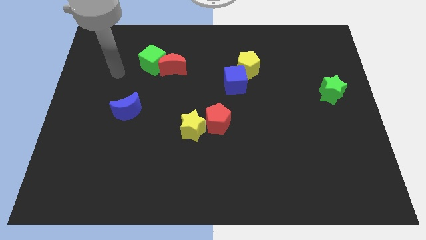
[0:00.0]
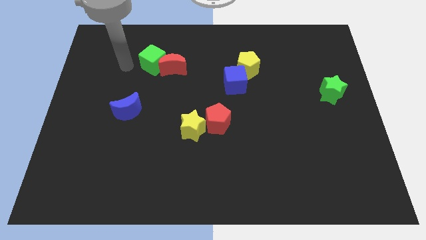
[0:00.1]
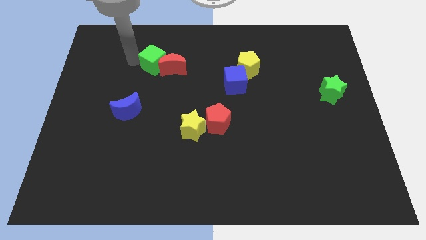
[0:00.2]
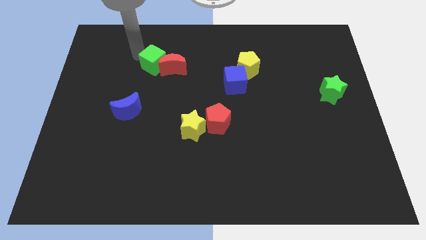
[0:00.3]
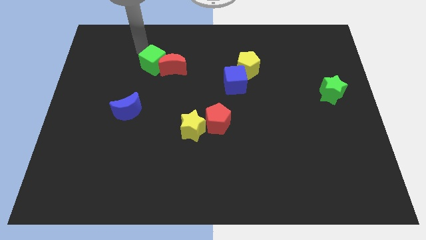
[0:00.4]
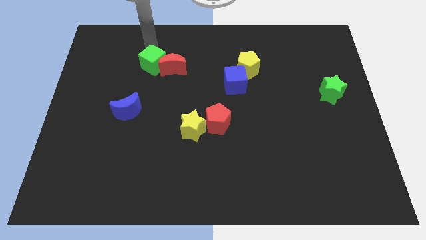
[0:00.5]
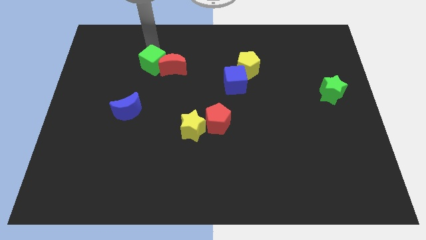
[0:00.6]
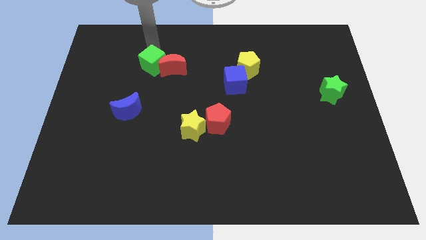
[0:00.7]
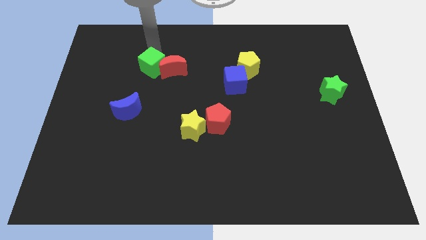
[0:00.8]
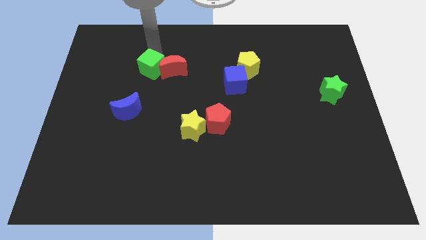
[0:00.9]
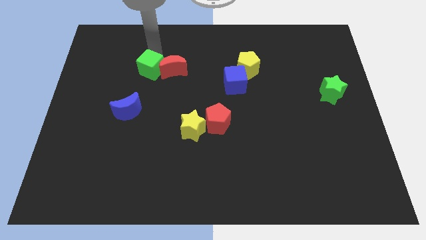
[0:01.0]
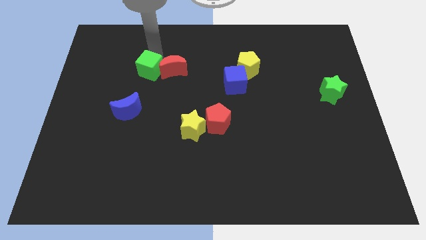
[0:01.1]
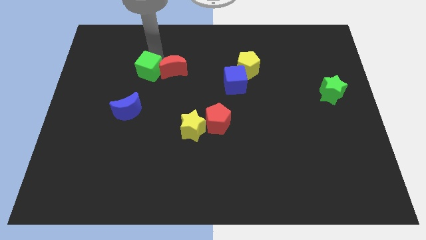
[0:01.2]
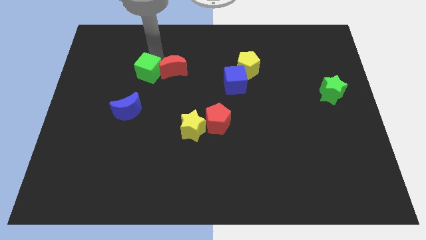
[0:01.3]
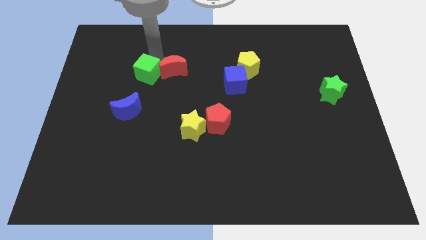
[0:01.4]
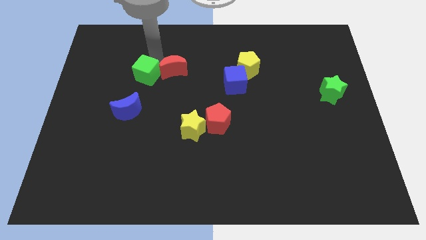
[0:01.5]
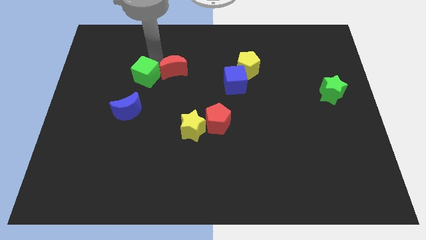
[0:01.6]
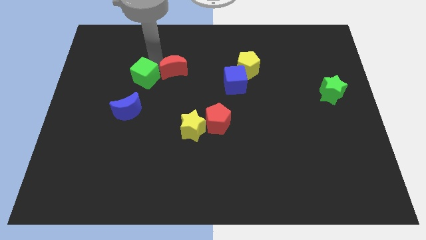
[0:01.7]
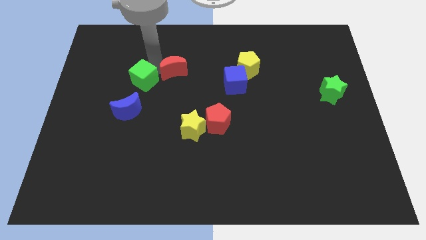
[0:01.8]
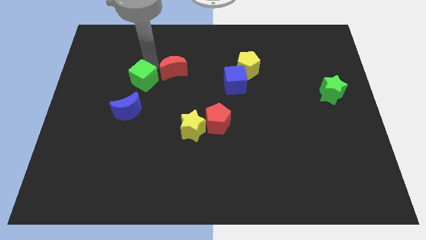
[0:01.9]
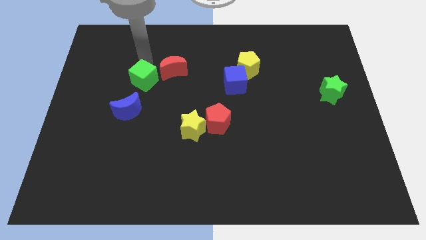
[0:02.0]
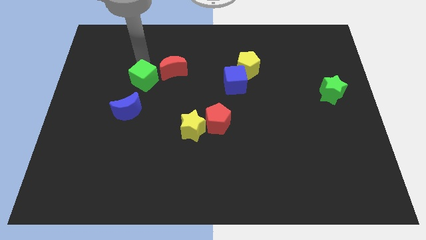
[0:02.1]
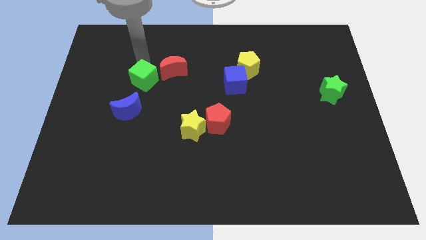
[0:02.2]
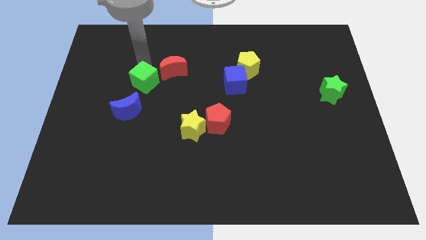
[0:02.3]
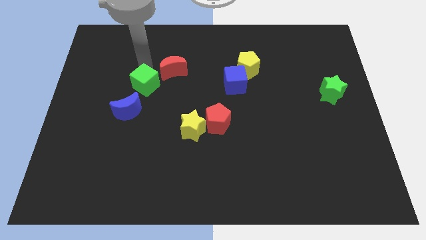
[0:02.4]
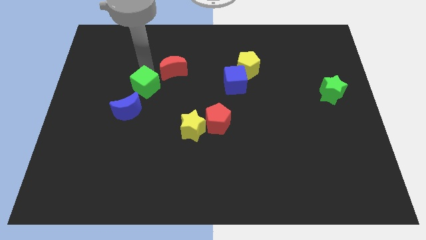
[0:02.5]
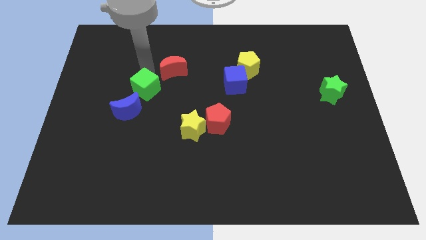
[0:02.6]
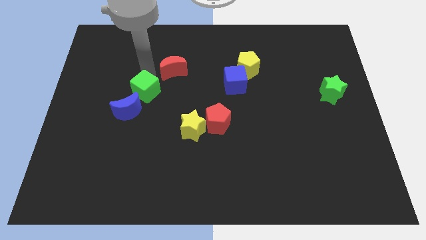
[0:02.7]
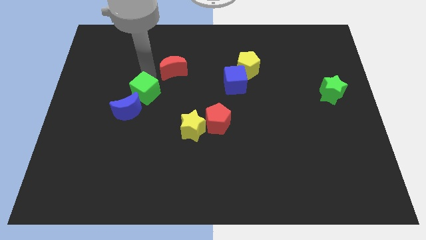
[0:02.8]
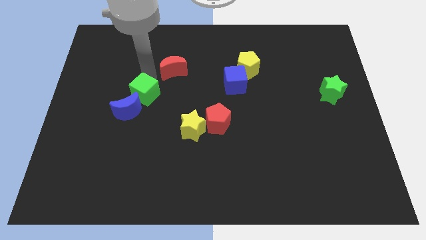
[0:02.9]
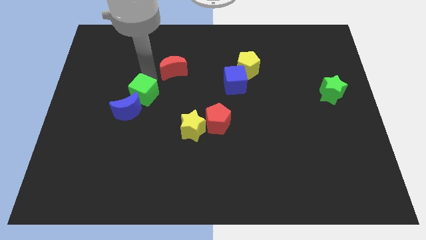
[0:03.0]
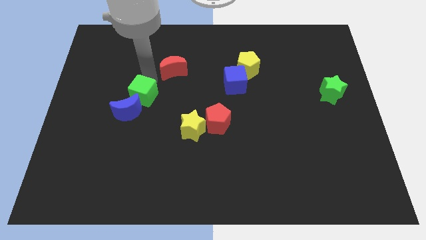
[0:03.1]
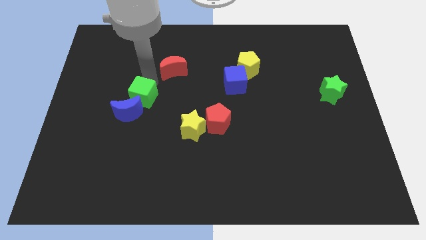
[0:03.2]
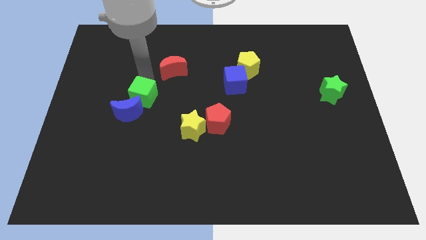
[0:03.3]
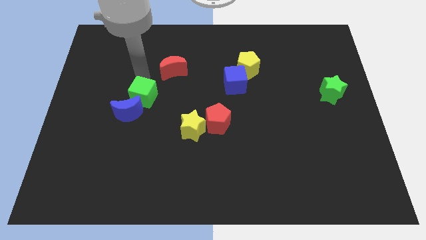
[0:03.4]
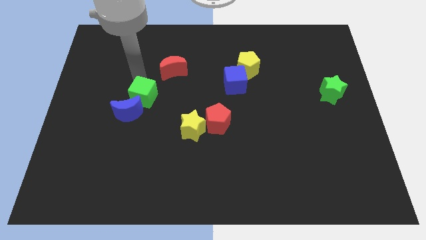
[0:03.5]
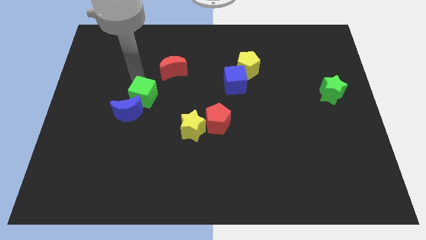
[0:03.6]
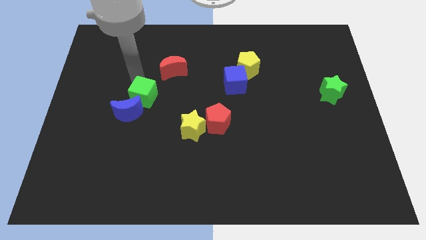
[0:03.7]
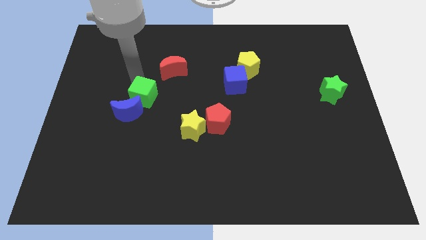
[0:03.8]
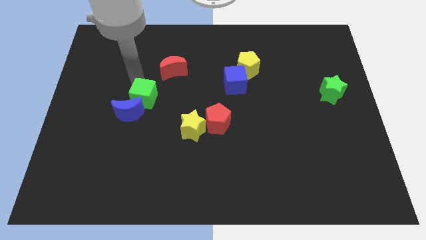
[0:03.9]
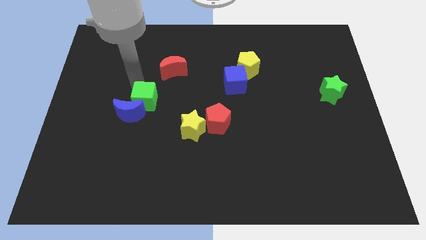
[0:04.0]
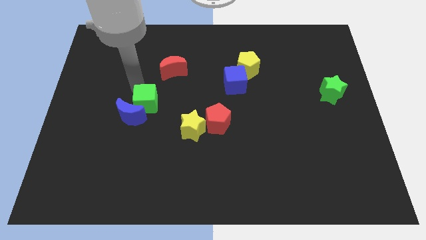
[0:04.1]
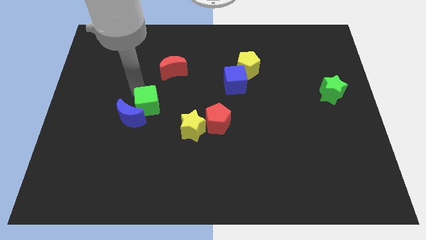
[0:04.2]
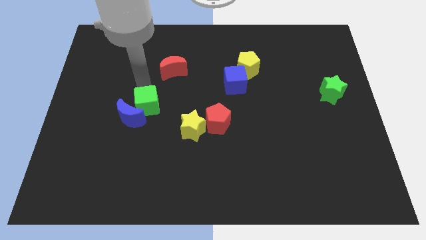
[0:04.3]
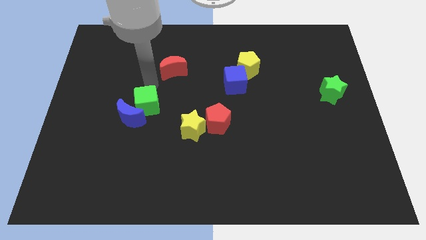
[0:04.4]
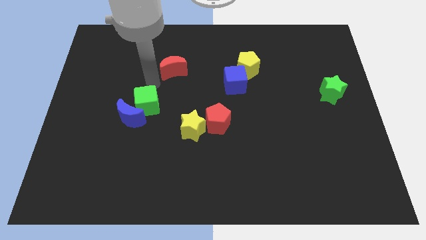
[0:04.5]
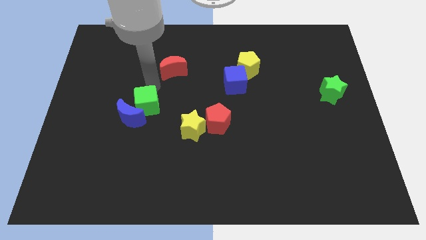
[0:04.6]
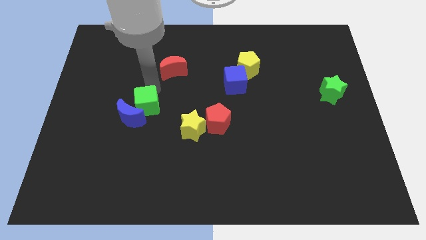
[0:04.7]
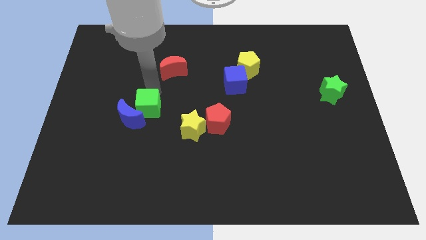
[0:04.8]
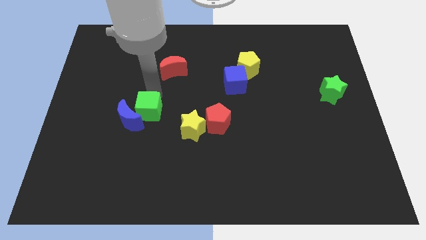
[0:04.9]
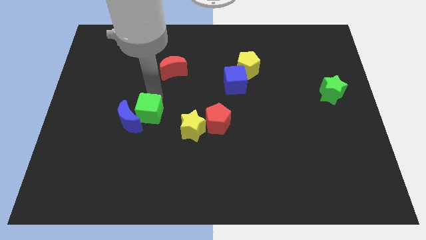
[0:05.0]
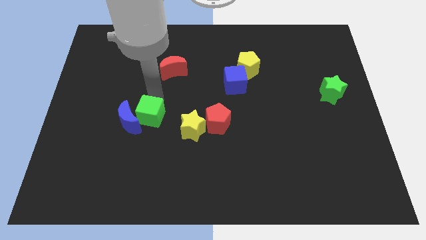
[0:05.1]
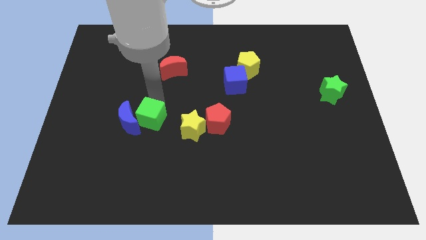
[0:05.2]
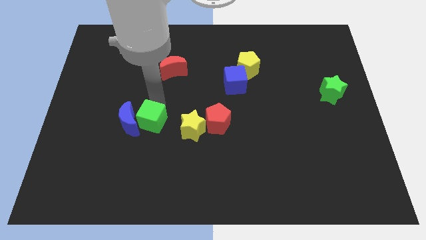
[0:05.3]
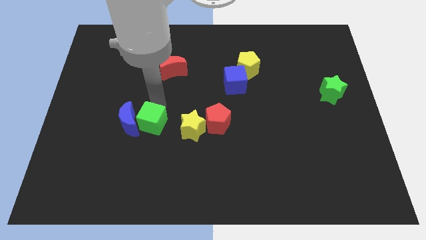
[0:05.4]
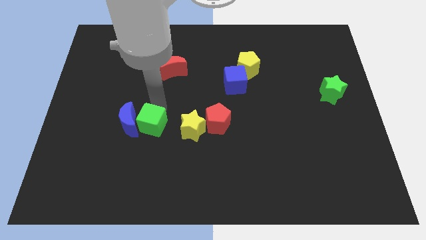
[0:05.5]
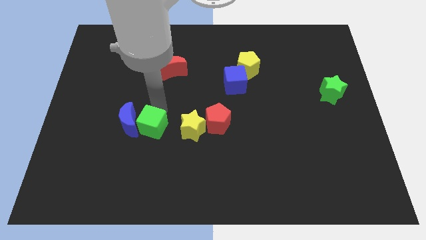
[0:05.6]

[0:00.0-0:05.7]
move the green cube downwards

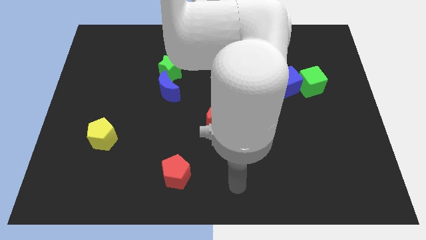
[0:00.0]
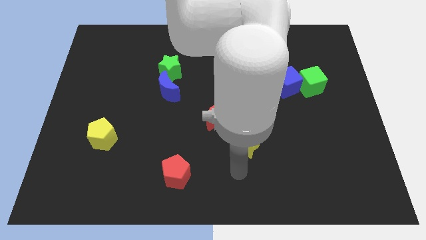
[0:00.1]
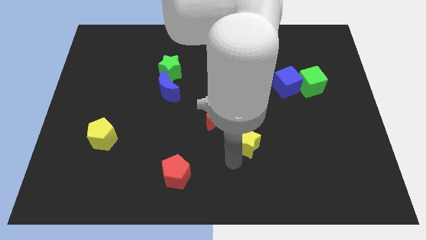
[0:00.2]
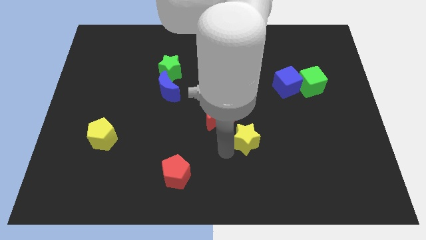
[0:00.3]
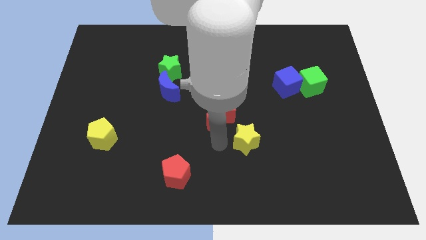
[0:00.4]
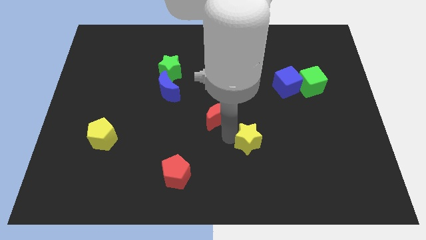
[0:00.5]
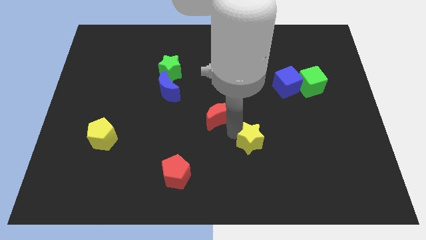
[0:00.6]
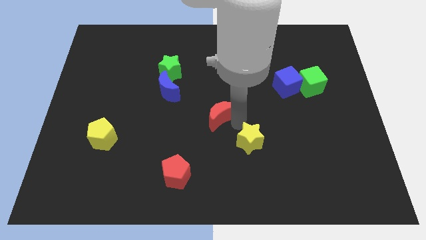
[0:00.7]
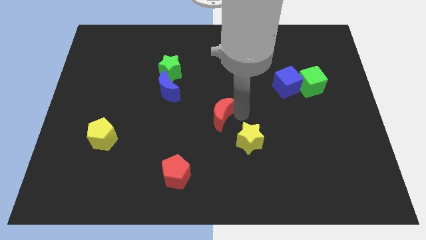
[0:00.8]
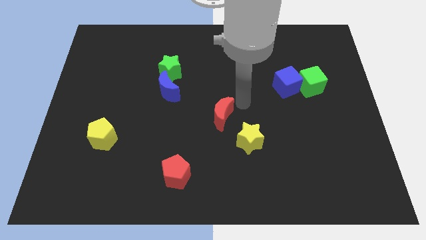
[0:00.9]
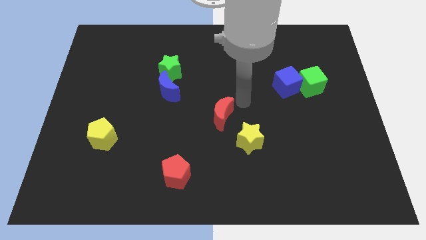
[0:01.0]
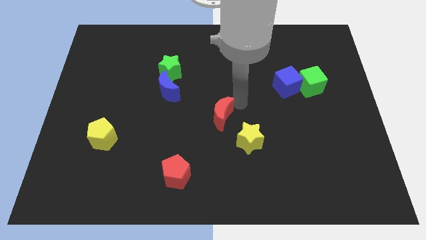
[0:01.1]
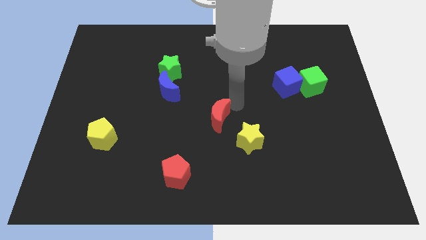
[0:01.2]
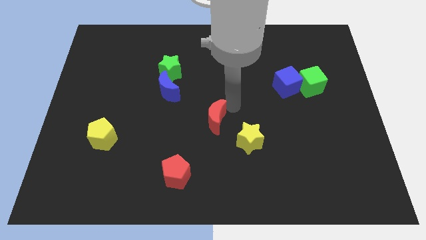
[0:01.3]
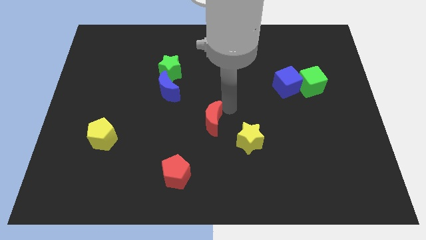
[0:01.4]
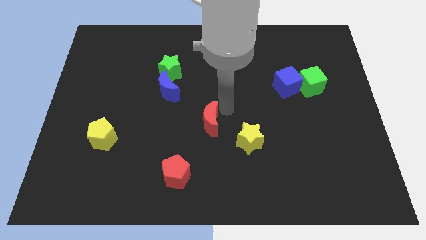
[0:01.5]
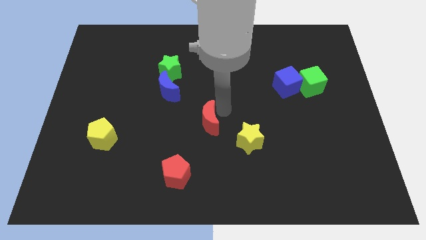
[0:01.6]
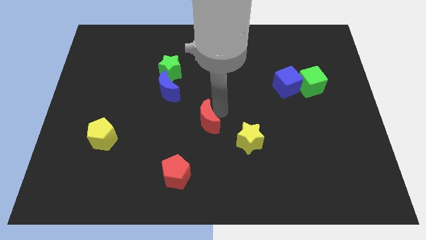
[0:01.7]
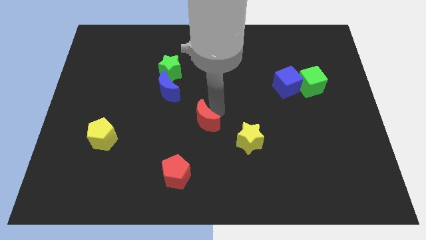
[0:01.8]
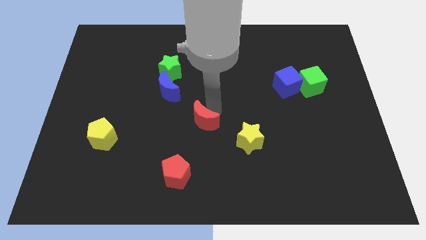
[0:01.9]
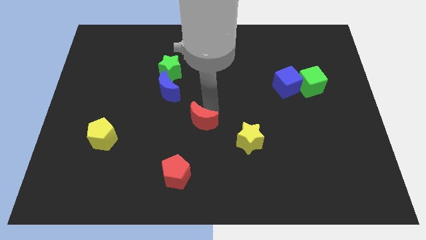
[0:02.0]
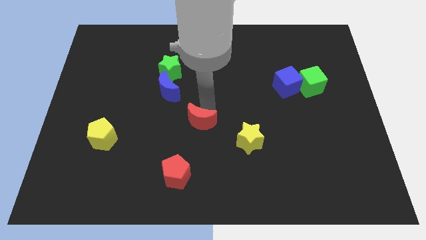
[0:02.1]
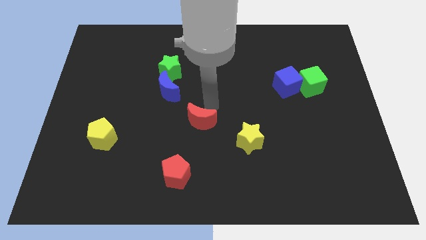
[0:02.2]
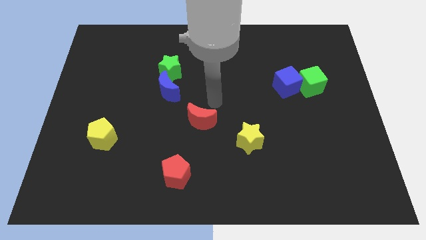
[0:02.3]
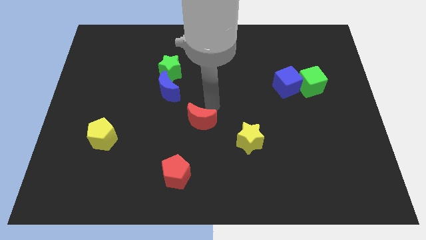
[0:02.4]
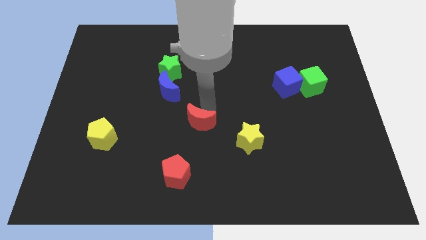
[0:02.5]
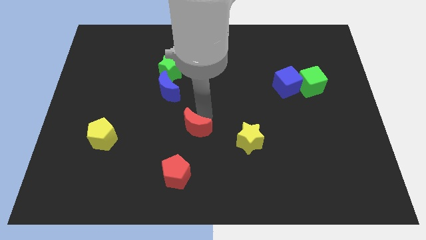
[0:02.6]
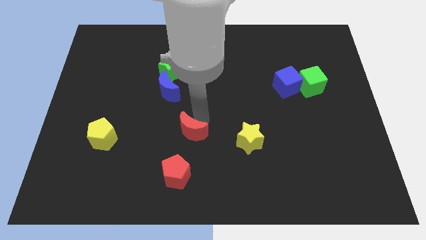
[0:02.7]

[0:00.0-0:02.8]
move the red moon slightly diagonally down and to the left
